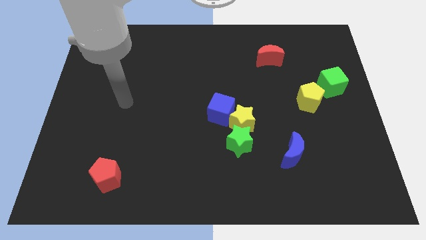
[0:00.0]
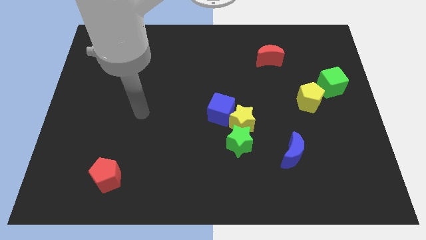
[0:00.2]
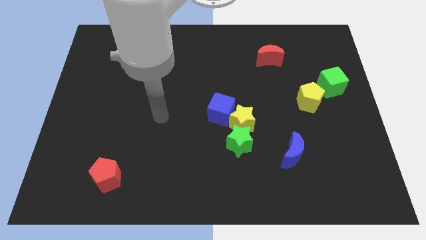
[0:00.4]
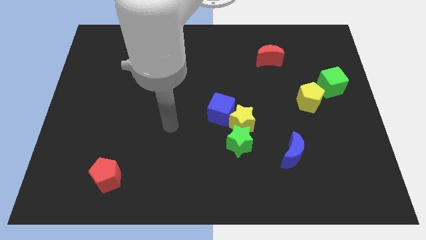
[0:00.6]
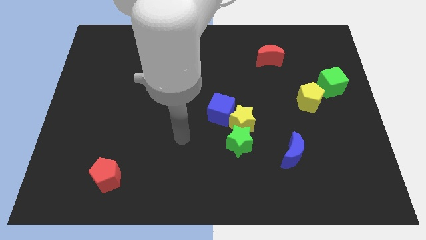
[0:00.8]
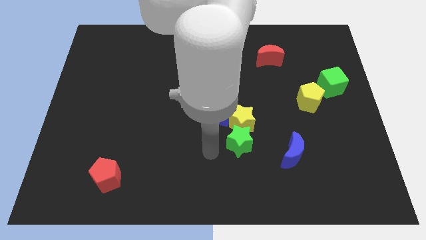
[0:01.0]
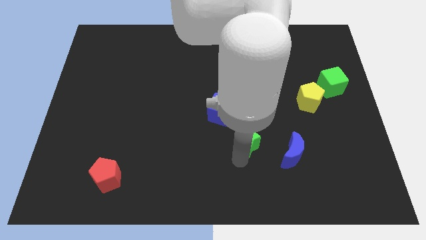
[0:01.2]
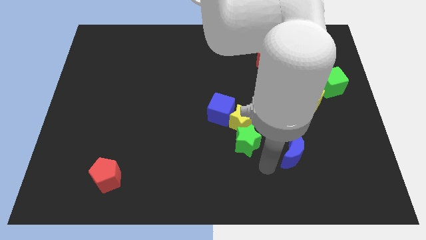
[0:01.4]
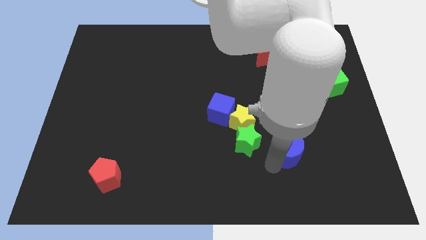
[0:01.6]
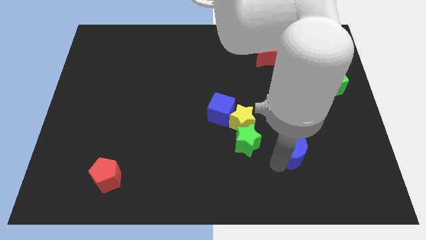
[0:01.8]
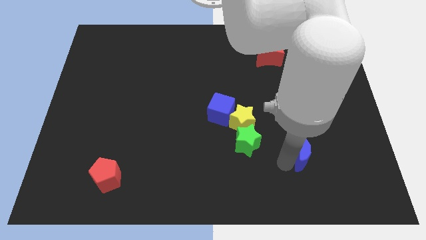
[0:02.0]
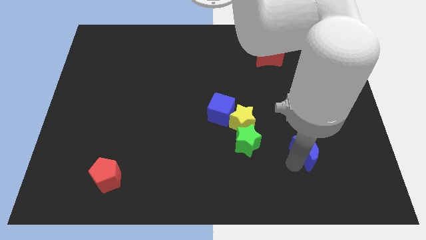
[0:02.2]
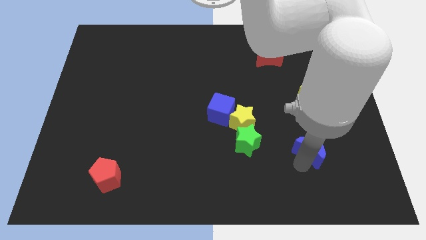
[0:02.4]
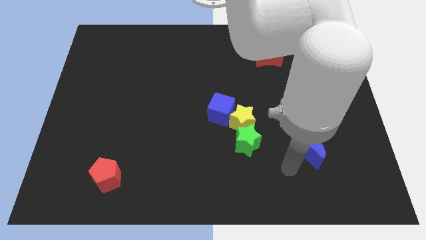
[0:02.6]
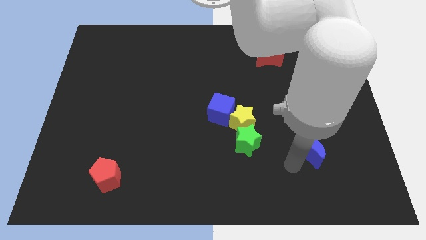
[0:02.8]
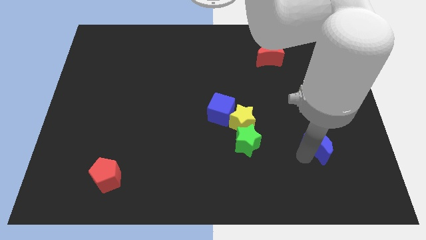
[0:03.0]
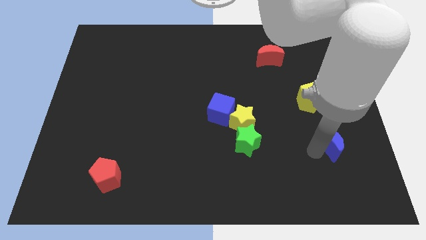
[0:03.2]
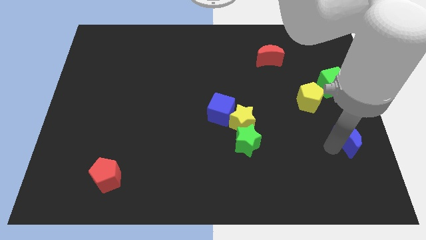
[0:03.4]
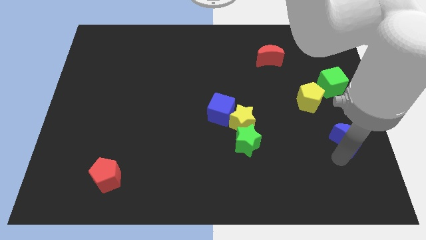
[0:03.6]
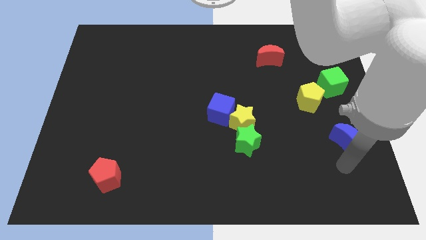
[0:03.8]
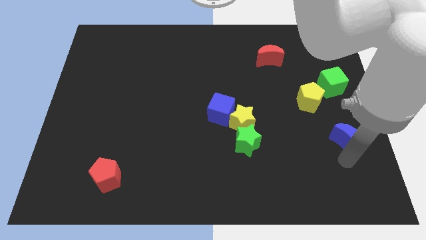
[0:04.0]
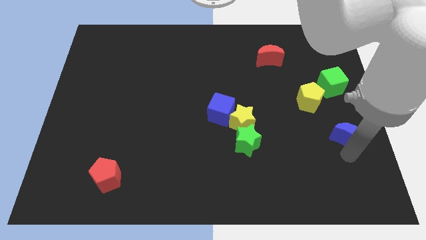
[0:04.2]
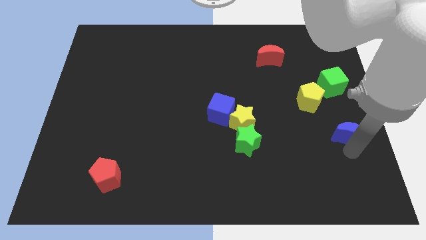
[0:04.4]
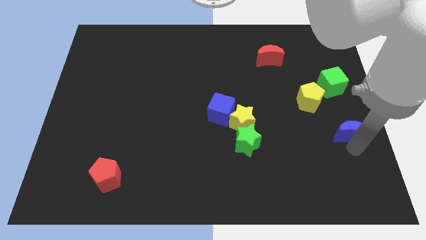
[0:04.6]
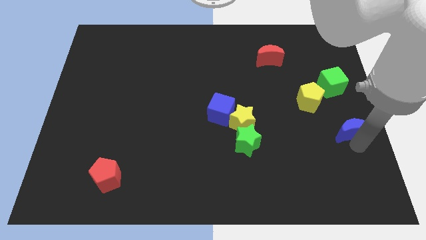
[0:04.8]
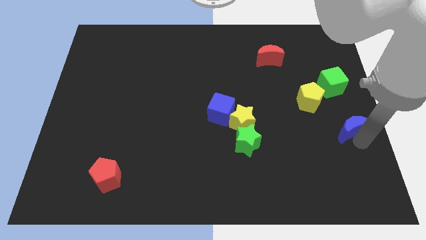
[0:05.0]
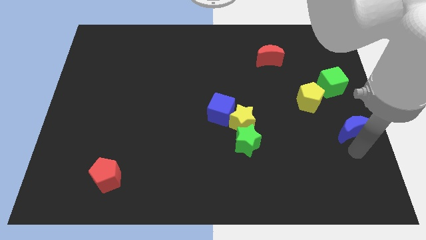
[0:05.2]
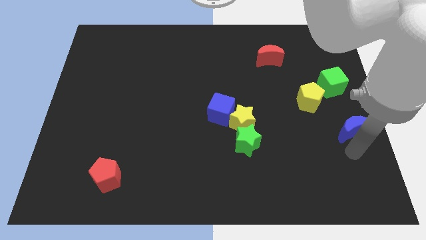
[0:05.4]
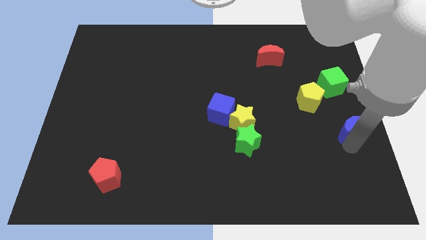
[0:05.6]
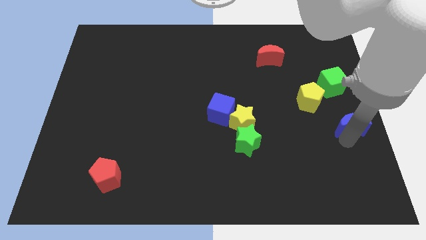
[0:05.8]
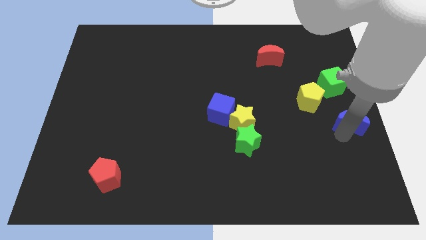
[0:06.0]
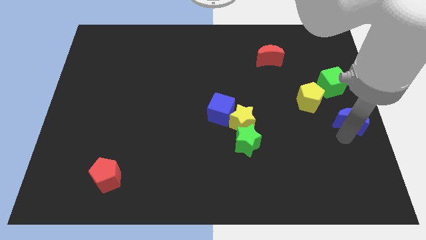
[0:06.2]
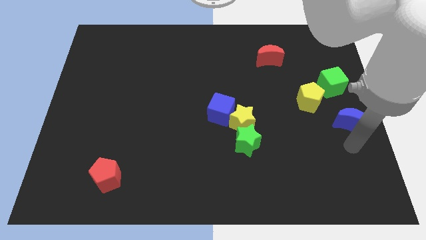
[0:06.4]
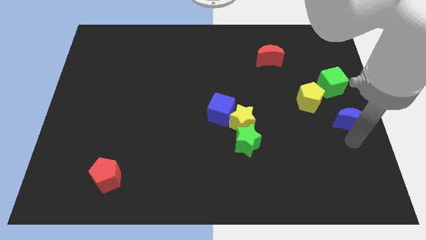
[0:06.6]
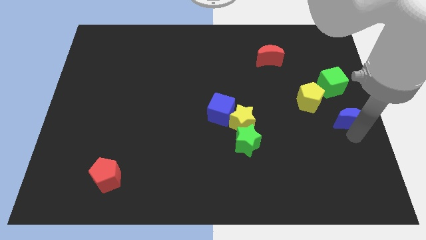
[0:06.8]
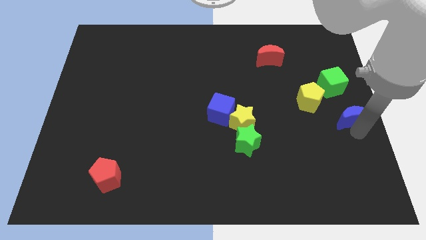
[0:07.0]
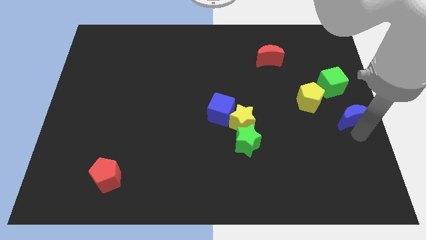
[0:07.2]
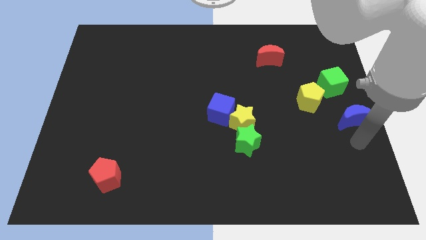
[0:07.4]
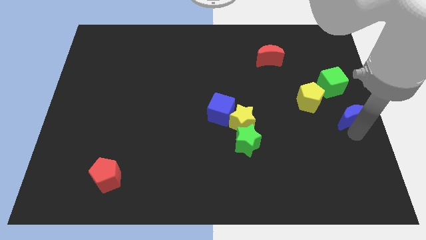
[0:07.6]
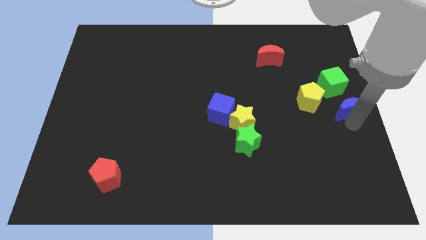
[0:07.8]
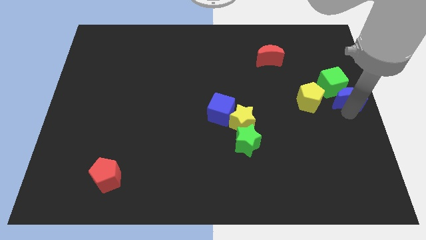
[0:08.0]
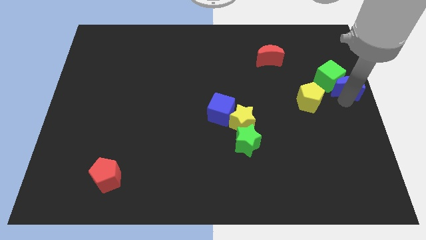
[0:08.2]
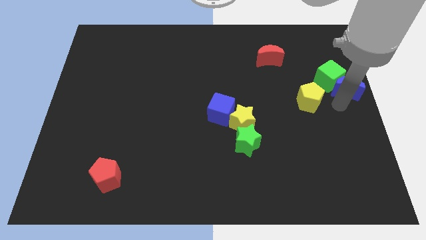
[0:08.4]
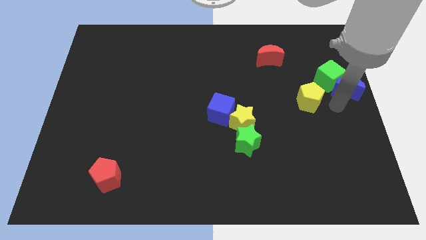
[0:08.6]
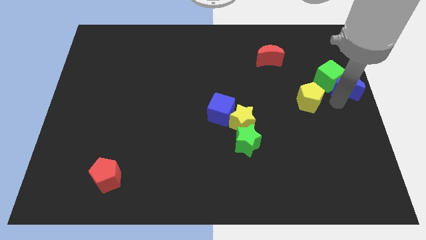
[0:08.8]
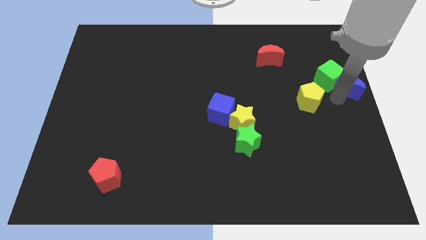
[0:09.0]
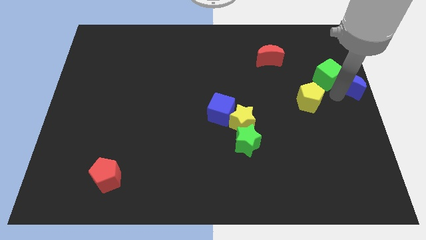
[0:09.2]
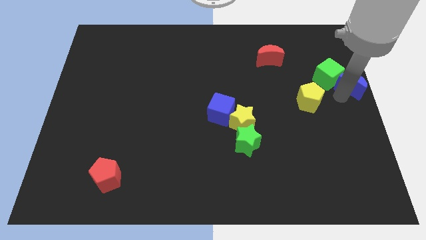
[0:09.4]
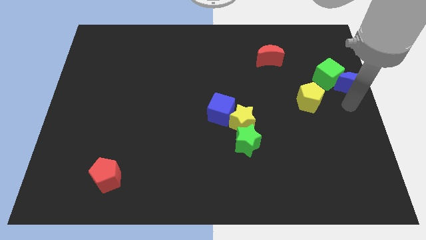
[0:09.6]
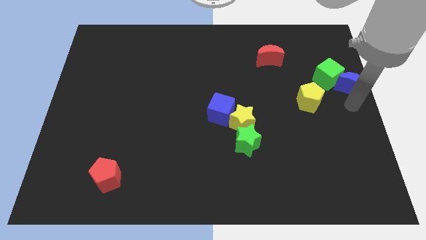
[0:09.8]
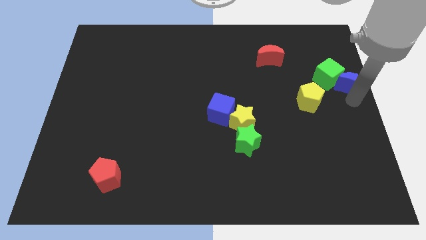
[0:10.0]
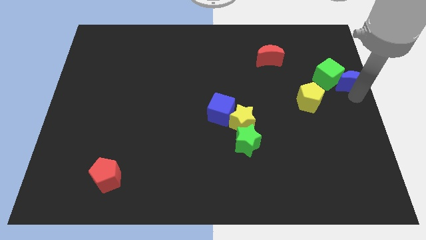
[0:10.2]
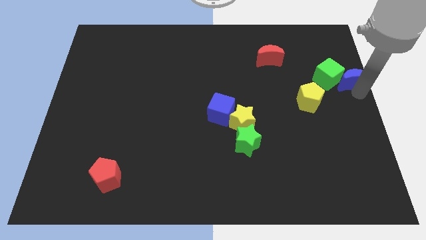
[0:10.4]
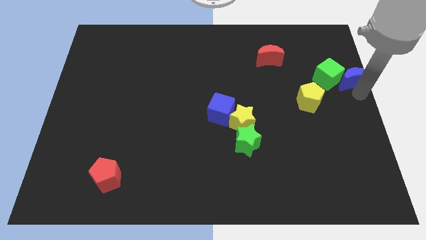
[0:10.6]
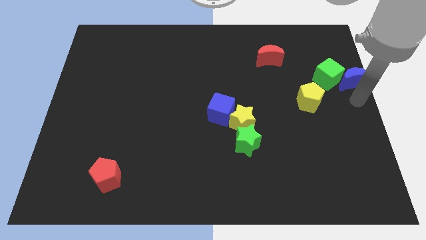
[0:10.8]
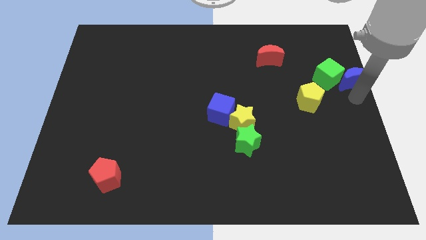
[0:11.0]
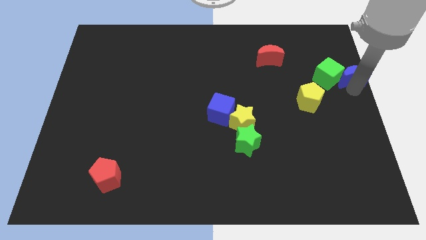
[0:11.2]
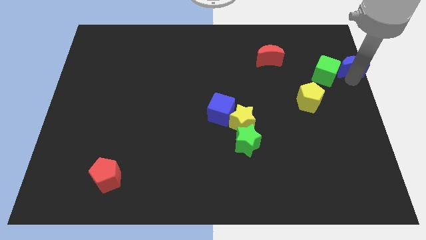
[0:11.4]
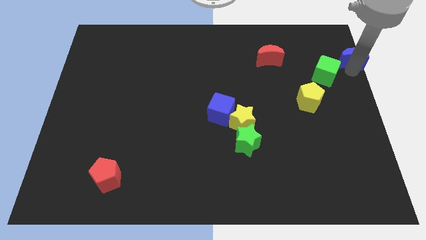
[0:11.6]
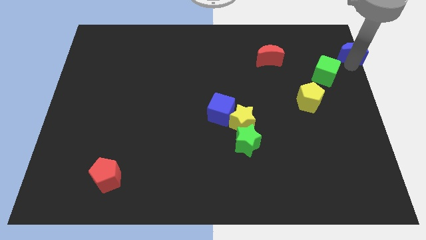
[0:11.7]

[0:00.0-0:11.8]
push the blue moon to the top right

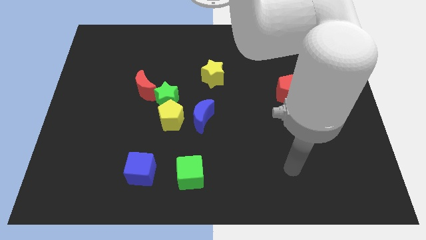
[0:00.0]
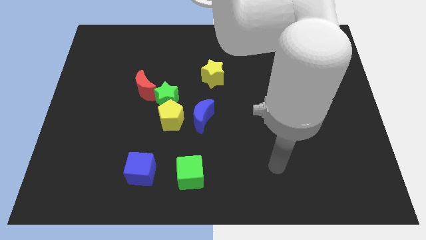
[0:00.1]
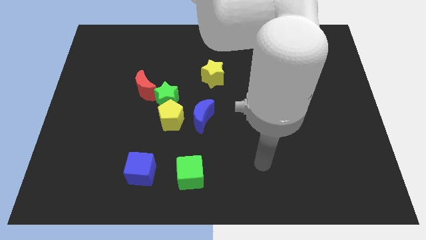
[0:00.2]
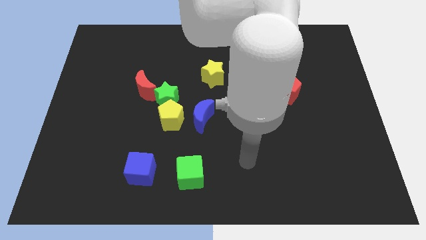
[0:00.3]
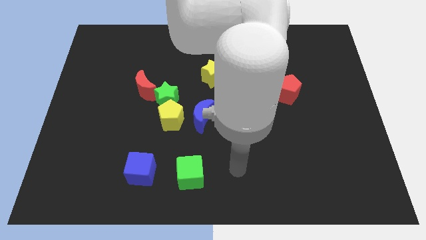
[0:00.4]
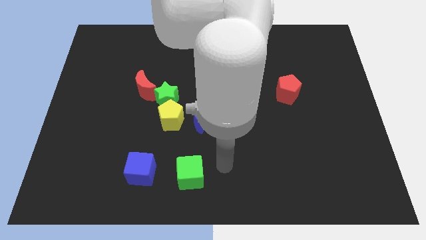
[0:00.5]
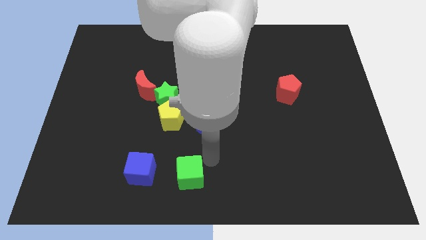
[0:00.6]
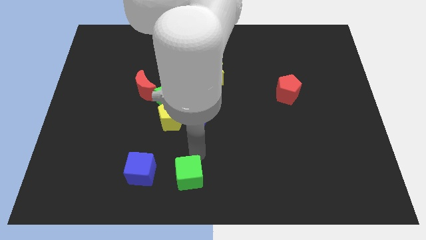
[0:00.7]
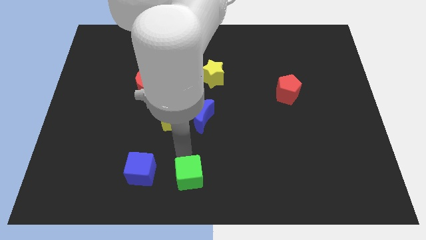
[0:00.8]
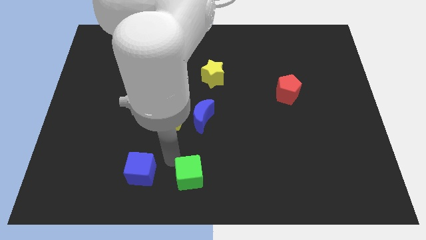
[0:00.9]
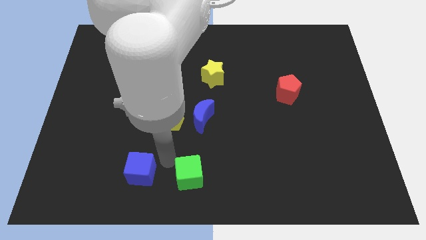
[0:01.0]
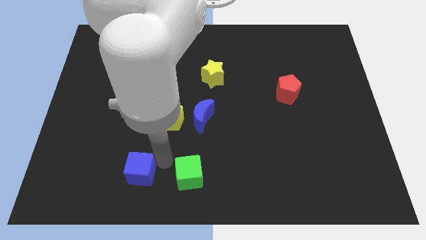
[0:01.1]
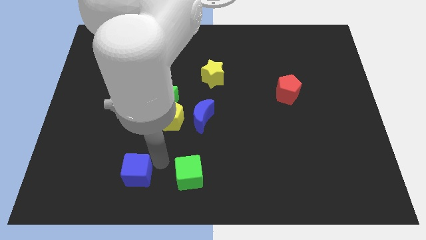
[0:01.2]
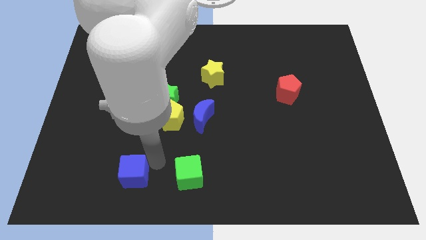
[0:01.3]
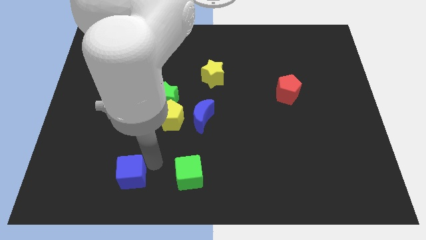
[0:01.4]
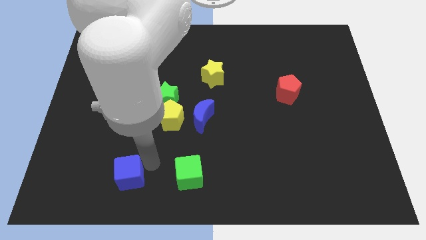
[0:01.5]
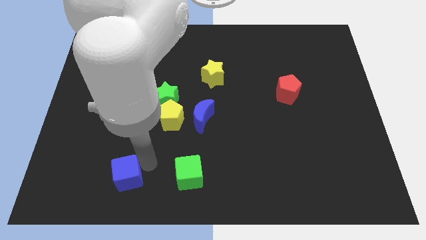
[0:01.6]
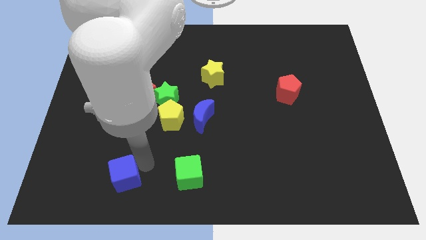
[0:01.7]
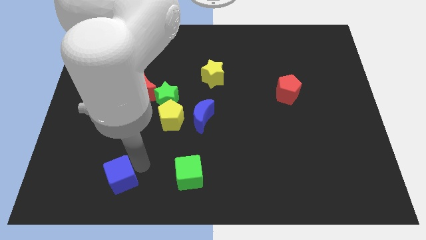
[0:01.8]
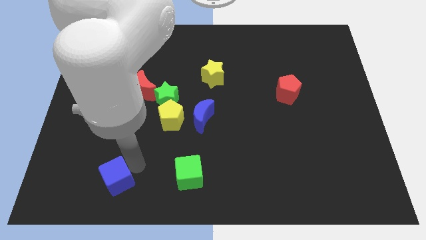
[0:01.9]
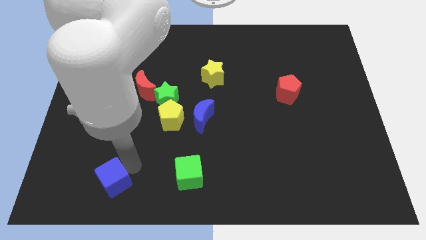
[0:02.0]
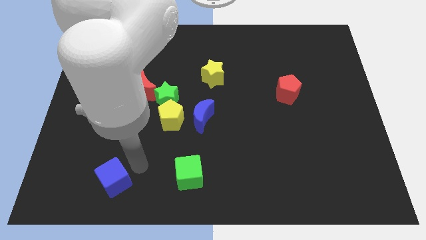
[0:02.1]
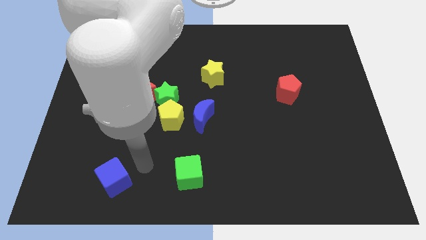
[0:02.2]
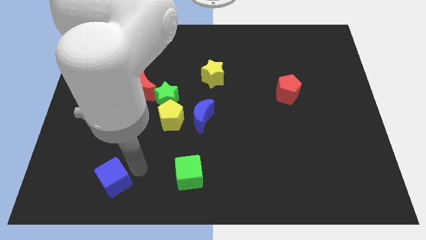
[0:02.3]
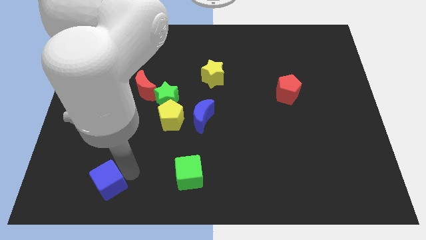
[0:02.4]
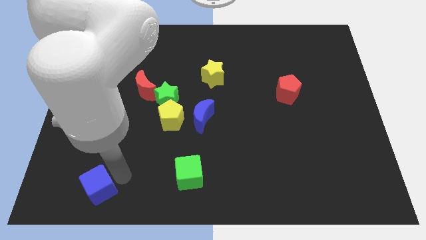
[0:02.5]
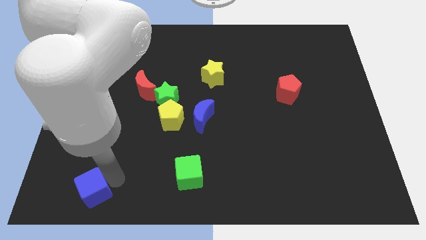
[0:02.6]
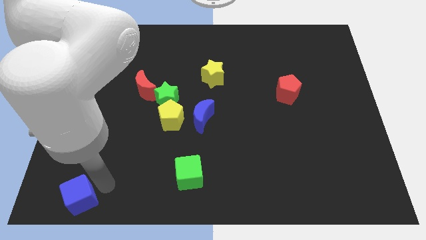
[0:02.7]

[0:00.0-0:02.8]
push the blue cube to the bottom left
